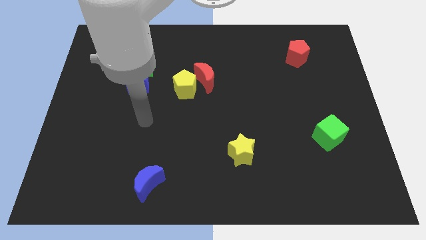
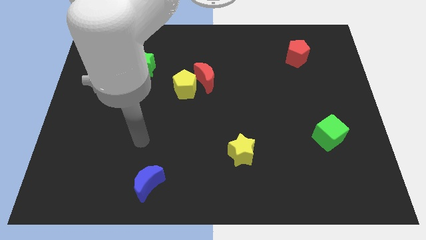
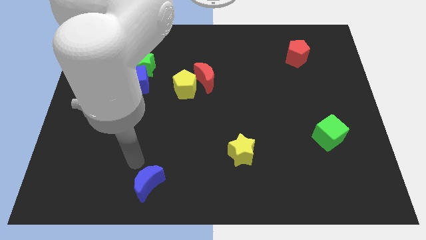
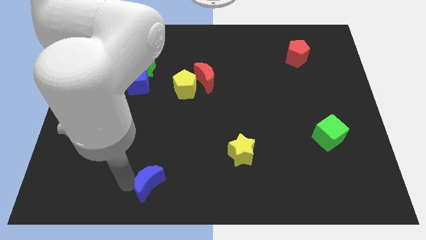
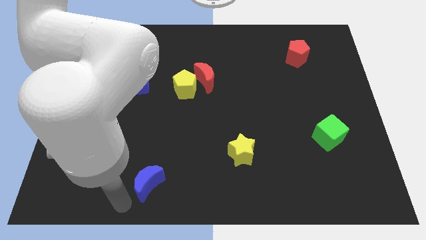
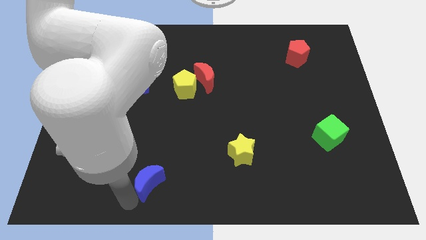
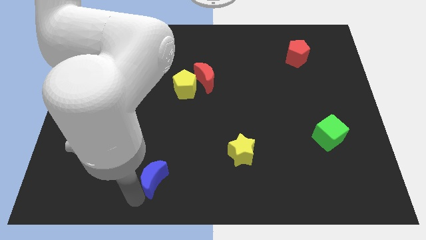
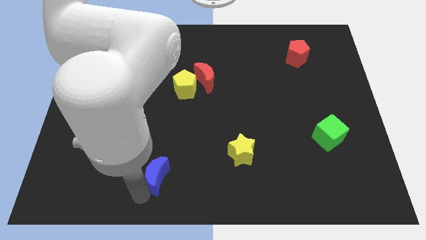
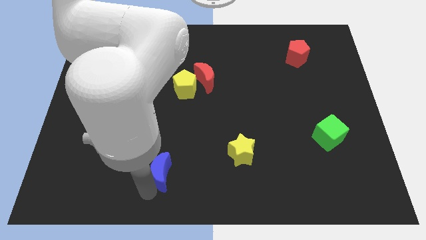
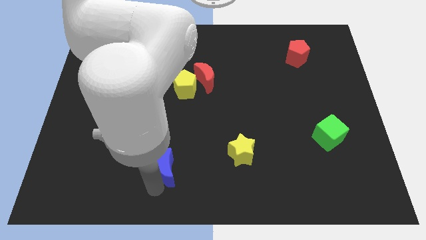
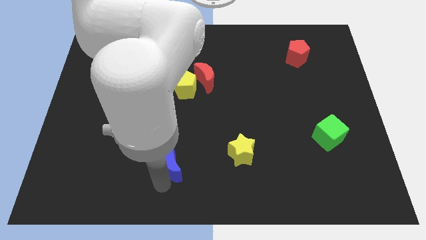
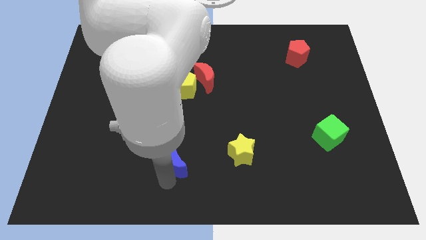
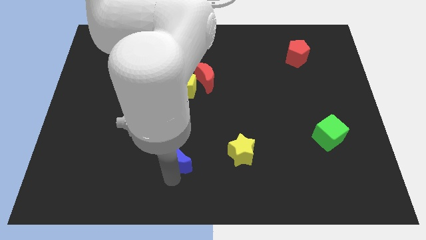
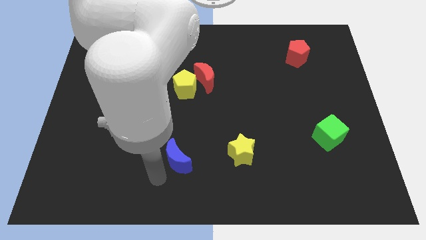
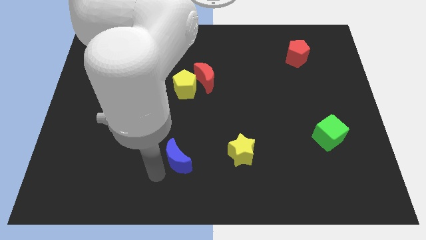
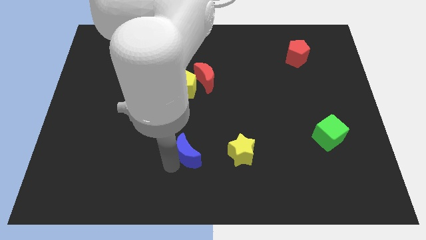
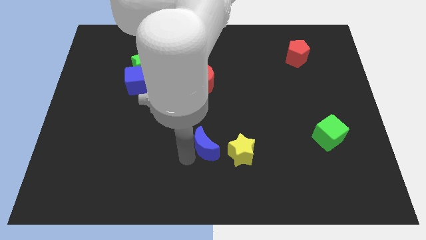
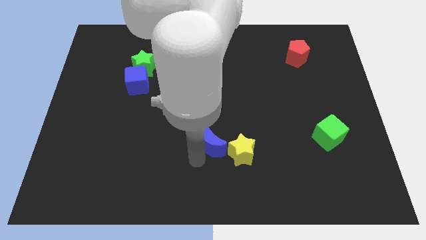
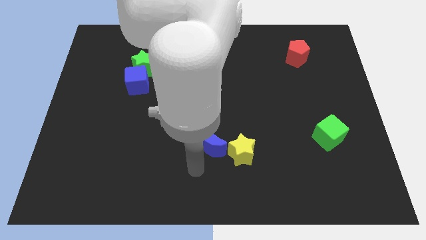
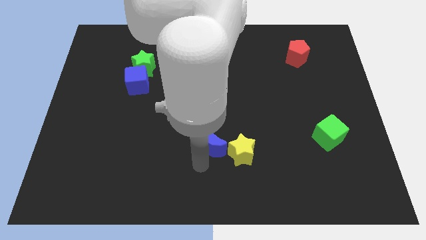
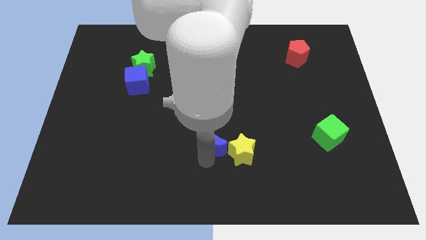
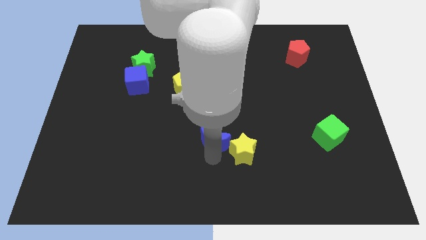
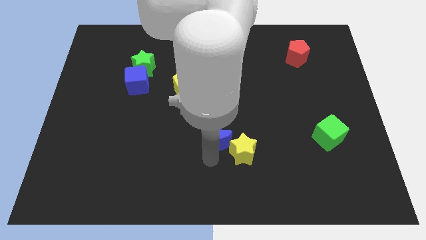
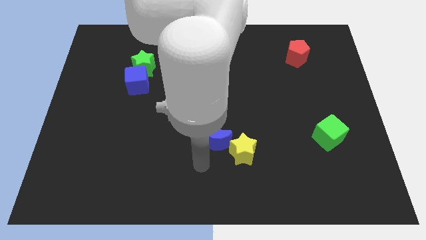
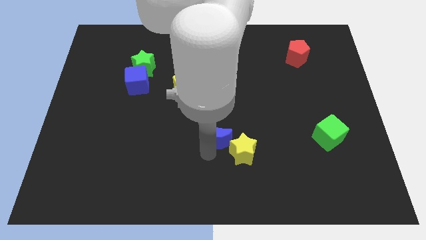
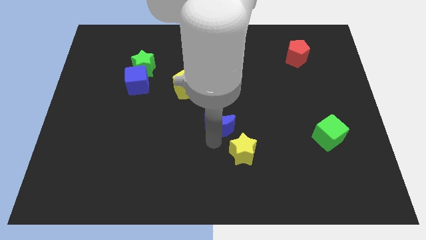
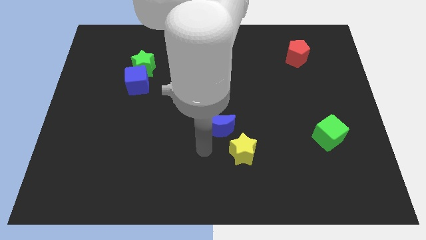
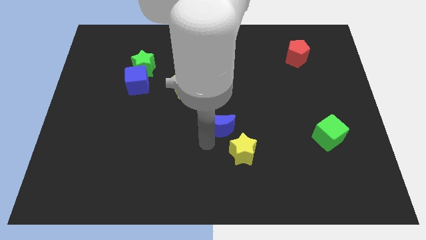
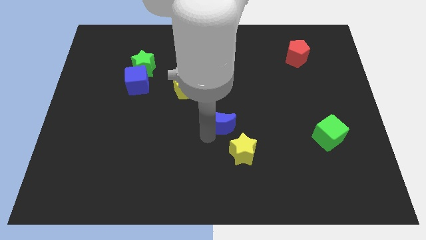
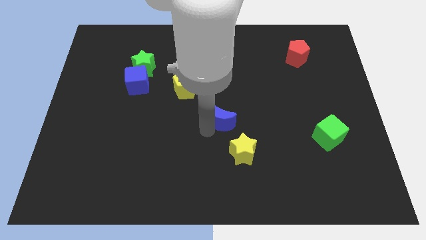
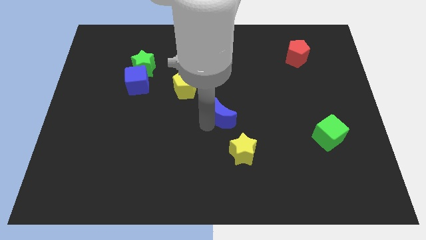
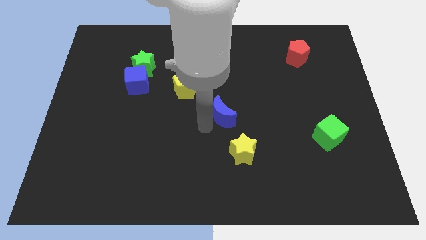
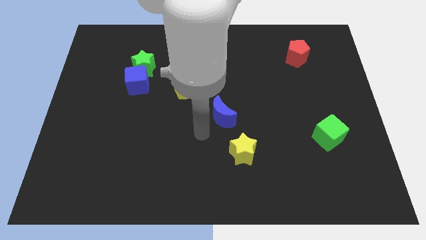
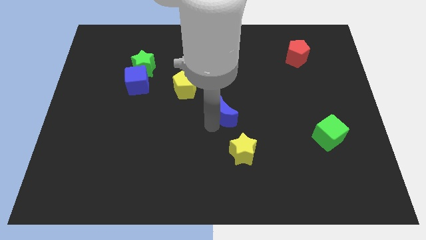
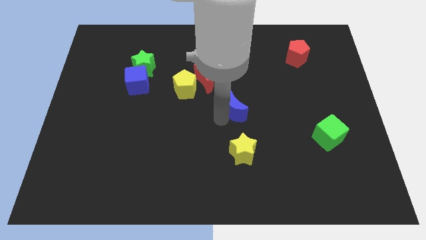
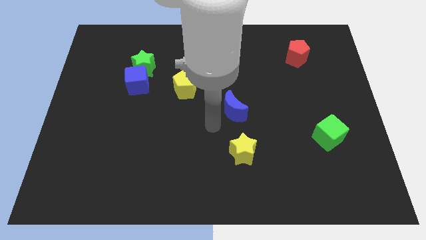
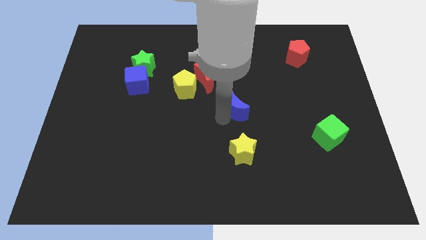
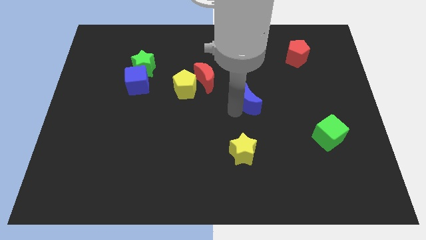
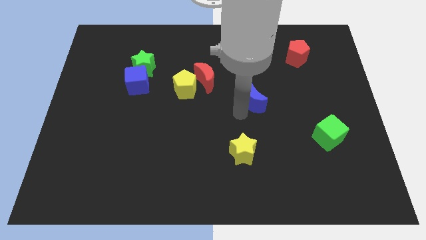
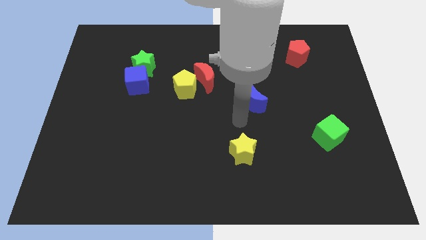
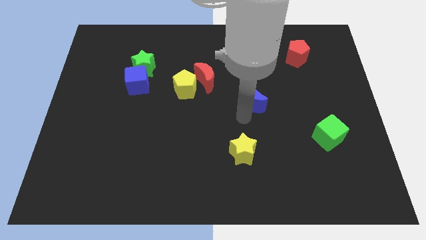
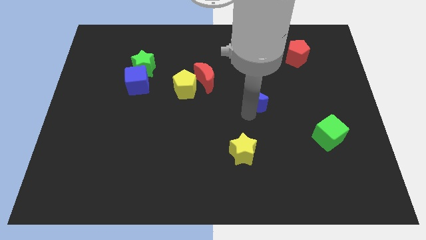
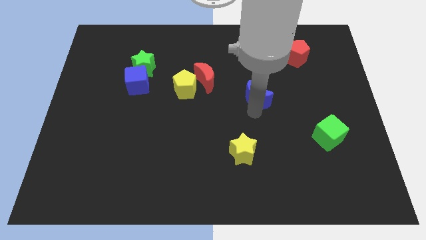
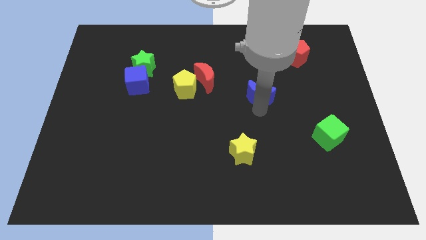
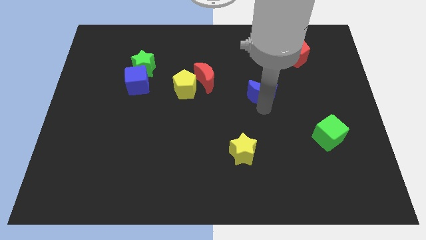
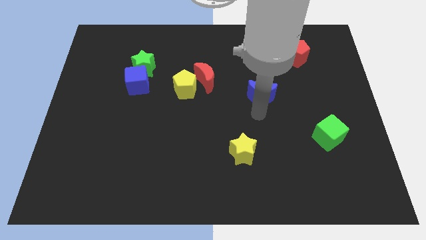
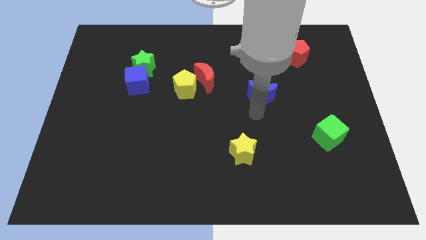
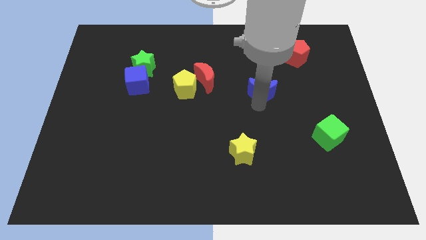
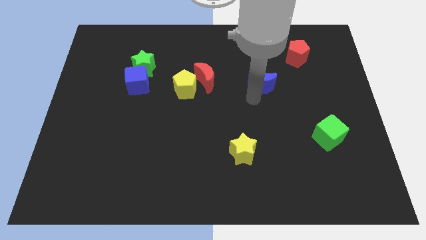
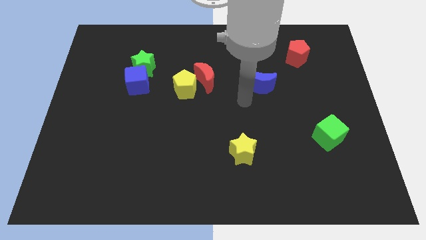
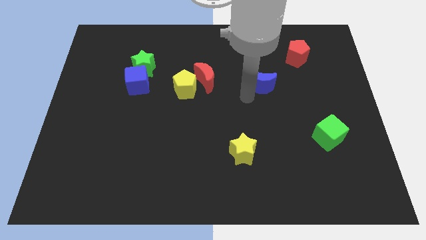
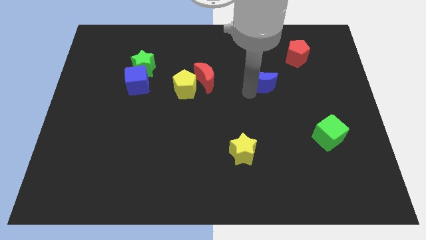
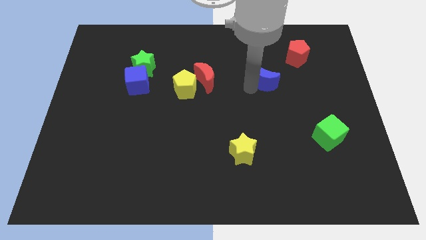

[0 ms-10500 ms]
push the blue moon to the bottom left side of the red pentagon

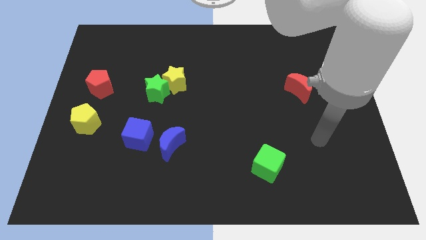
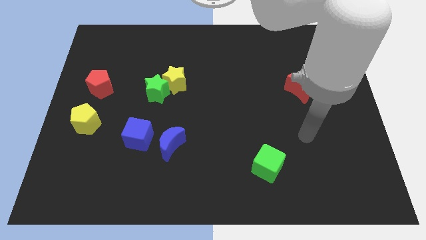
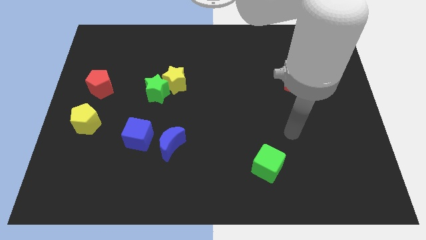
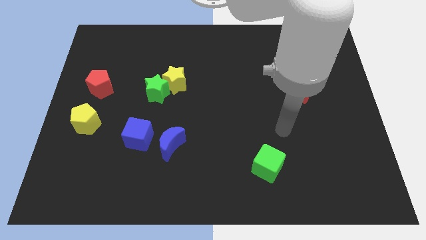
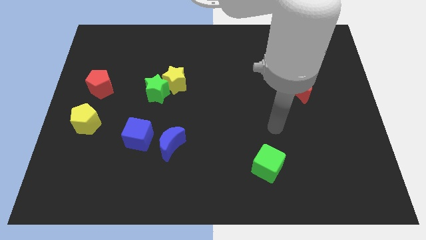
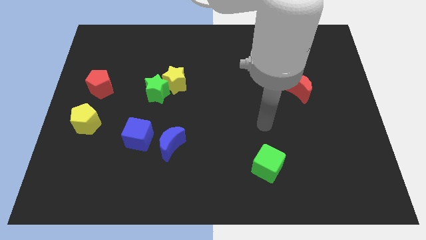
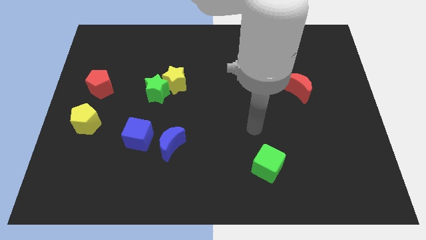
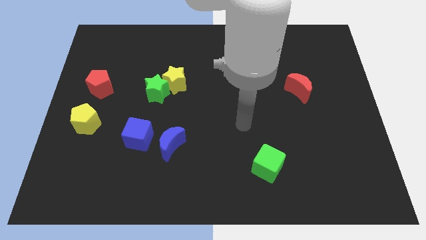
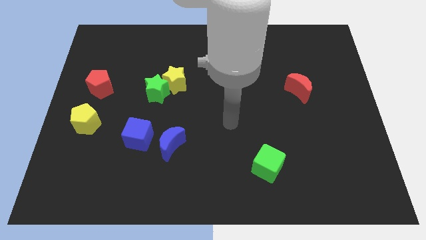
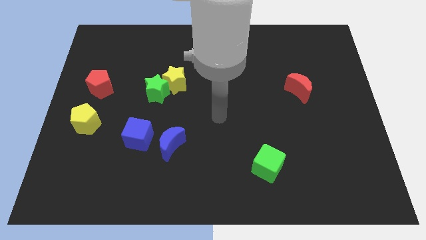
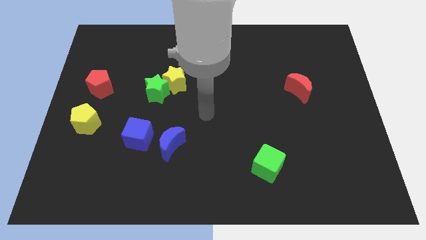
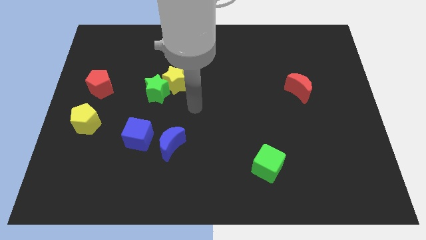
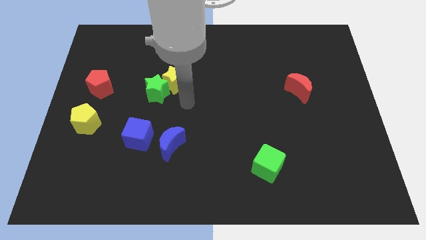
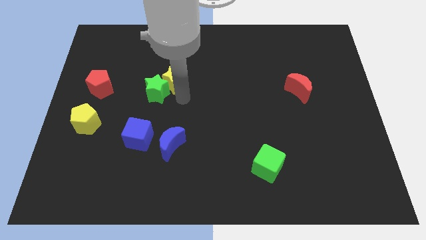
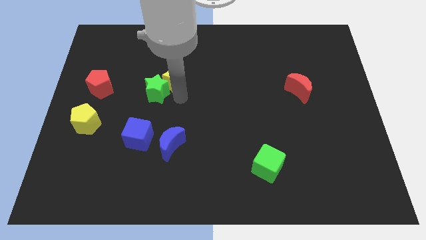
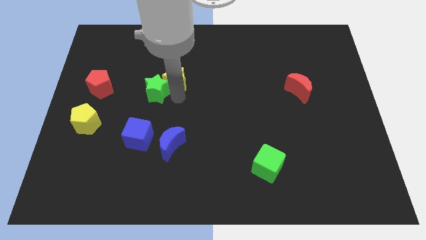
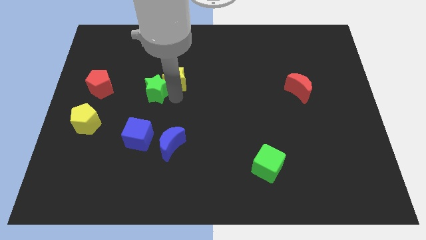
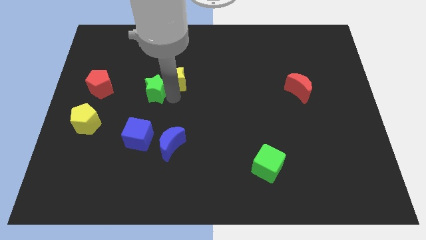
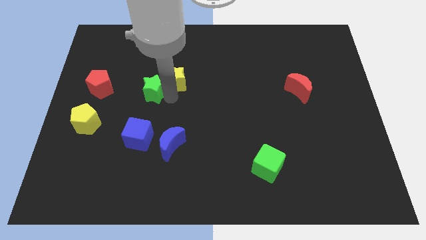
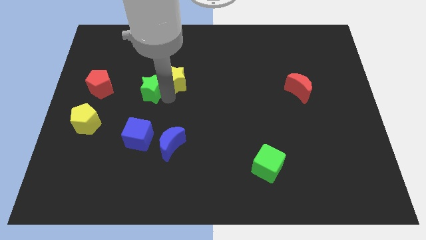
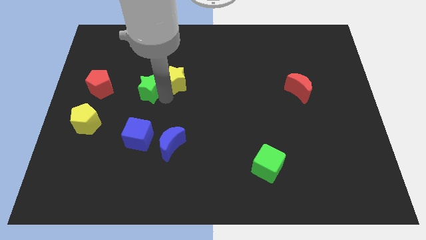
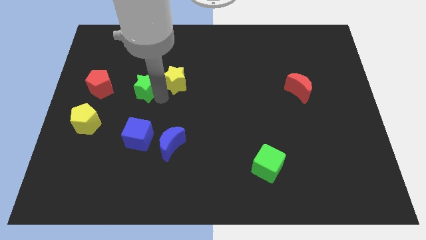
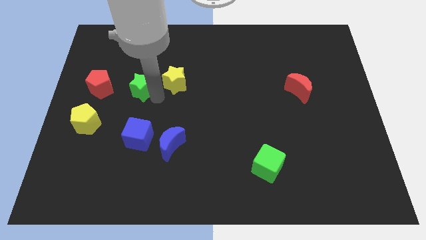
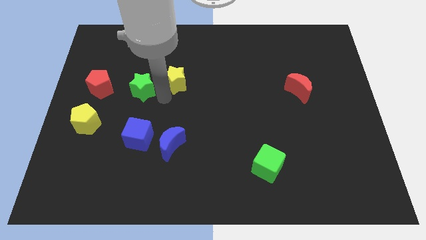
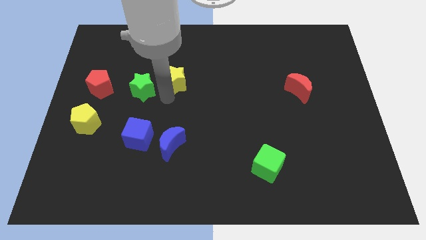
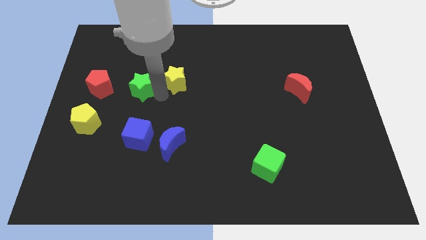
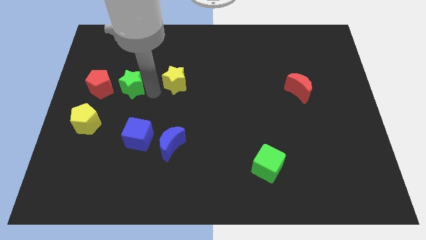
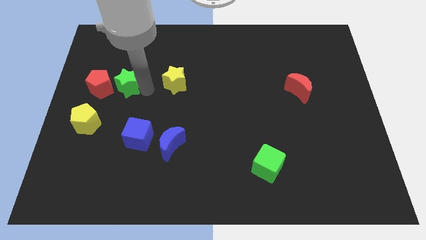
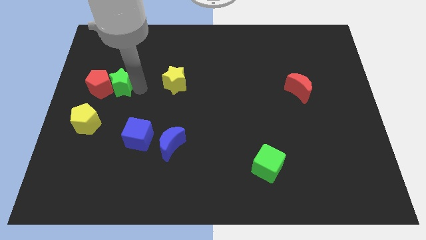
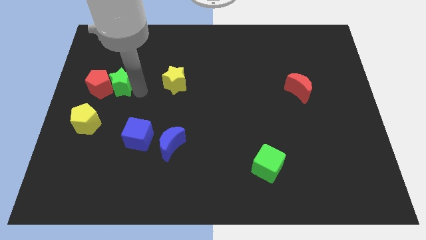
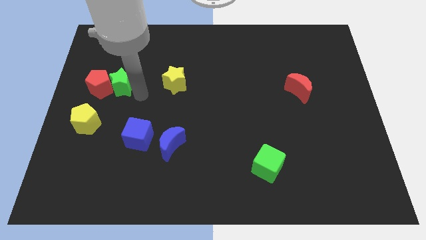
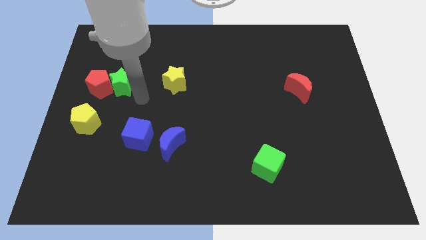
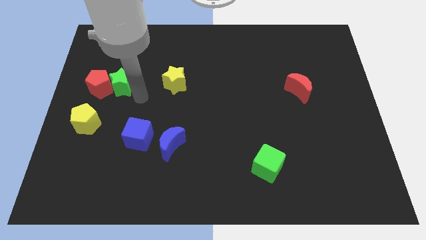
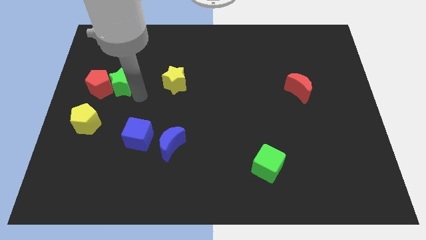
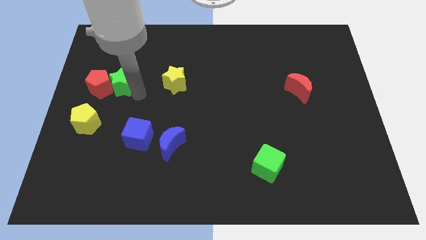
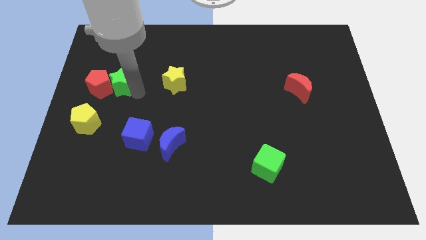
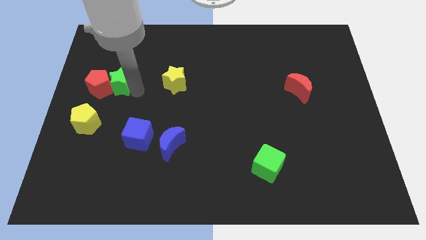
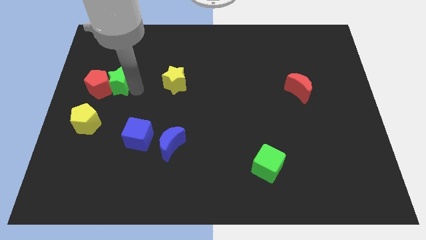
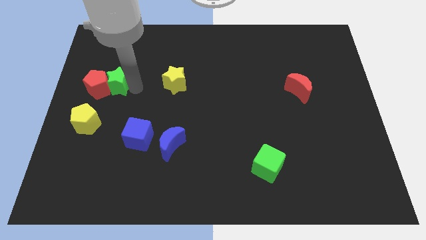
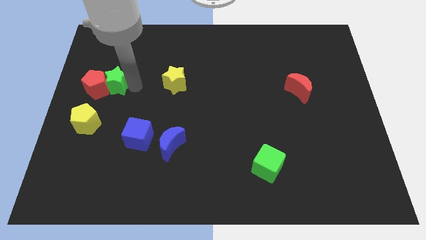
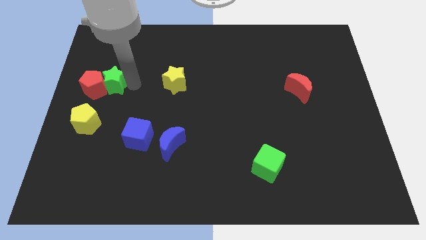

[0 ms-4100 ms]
slide the green star to the top of the yellow pentagon
